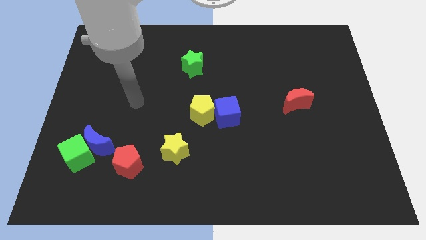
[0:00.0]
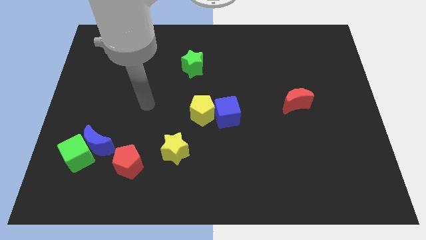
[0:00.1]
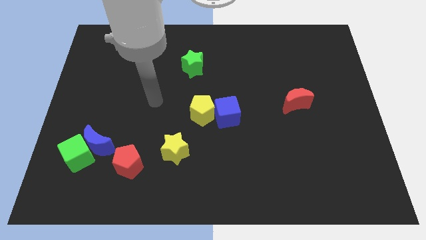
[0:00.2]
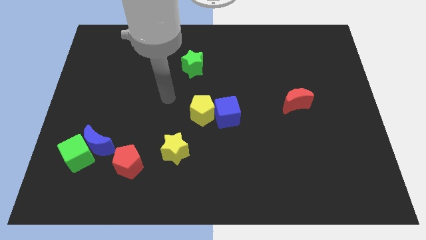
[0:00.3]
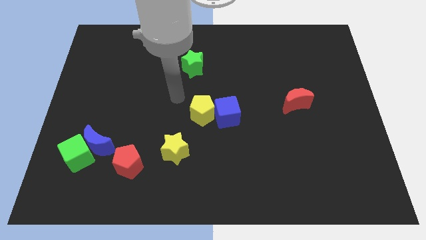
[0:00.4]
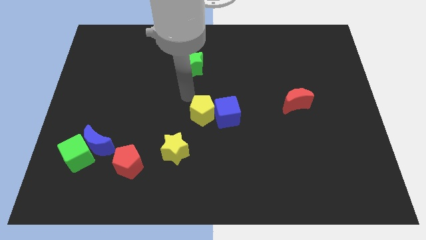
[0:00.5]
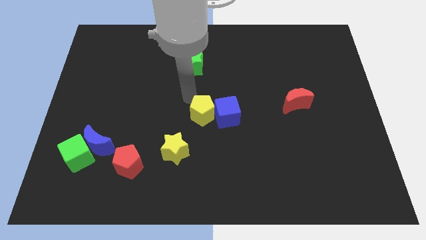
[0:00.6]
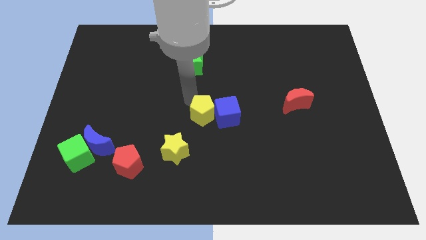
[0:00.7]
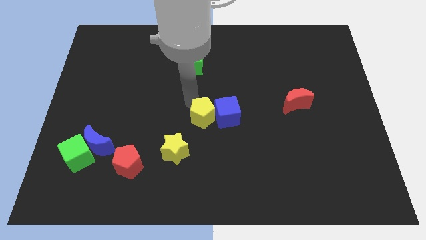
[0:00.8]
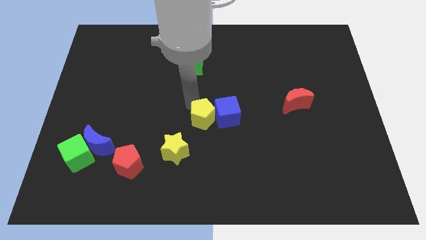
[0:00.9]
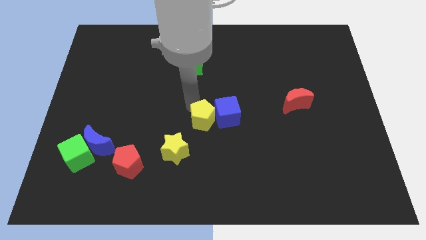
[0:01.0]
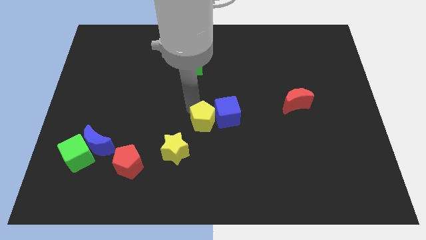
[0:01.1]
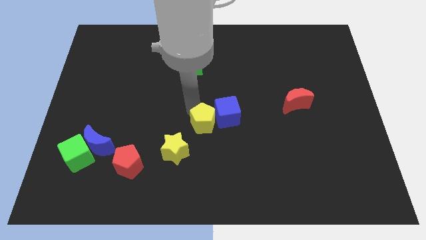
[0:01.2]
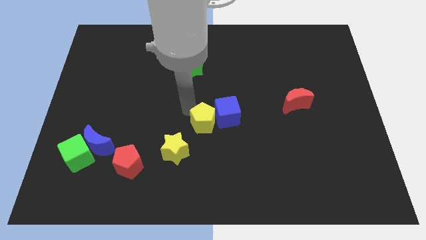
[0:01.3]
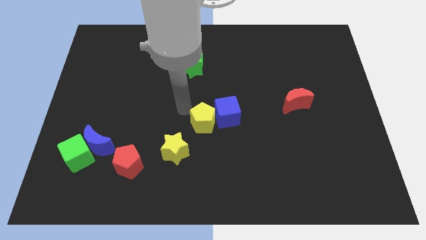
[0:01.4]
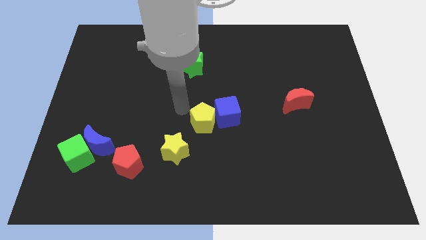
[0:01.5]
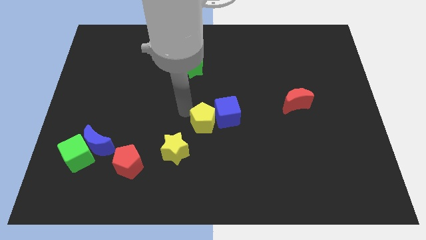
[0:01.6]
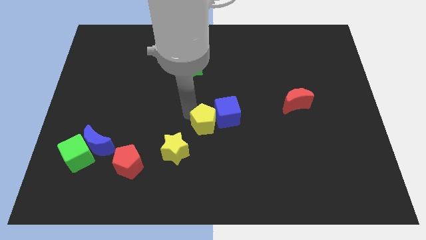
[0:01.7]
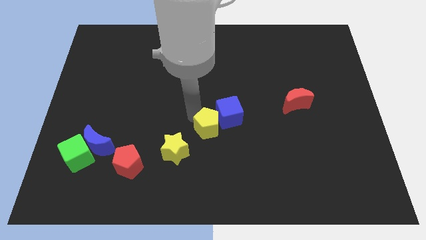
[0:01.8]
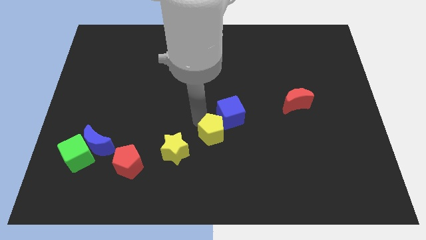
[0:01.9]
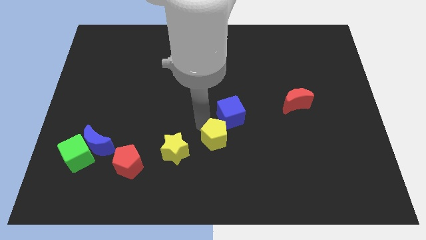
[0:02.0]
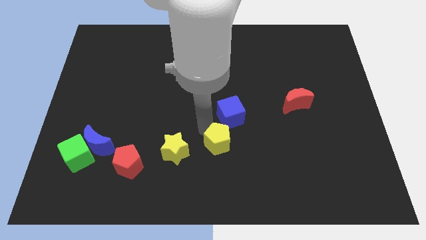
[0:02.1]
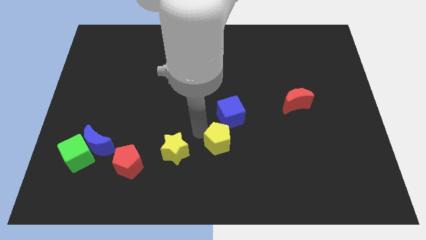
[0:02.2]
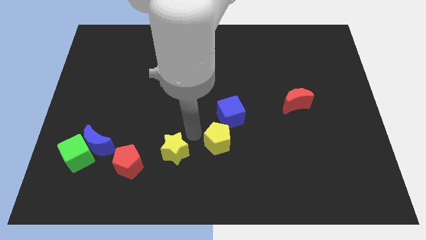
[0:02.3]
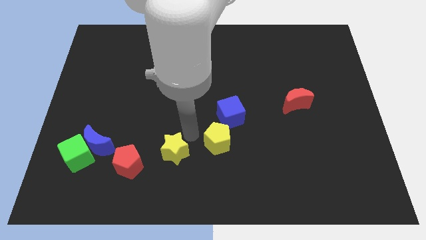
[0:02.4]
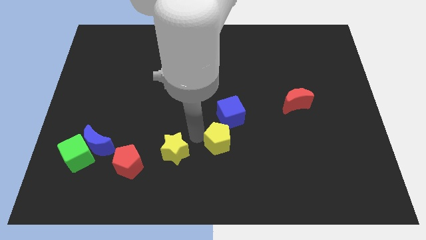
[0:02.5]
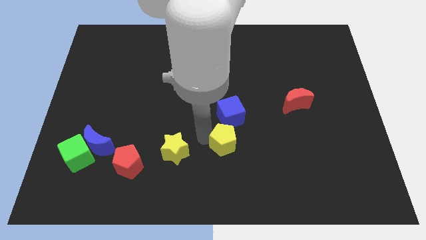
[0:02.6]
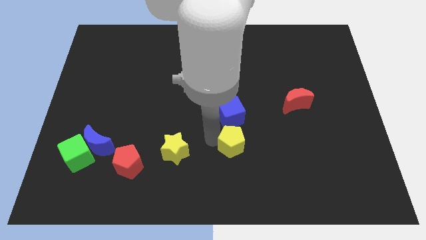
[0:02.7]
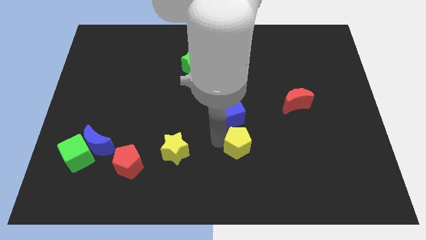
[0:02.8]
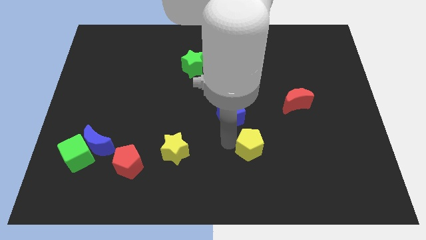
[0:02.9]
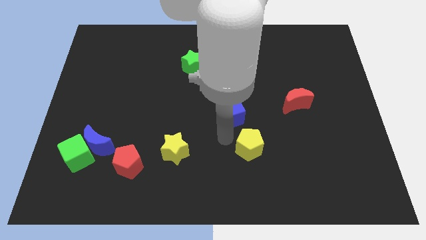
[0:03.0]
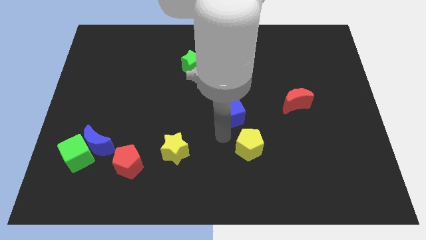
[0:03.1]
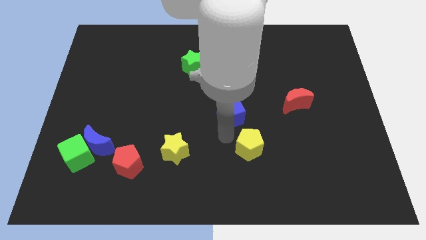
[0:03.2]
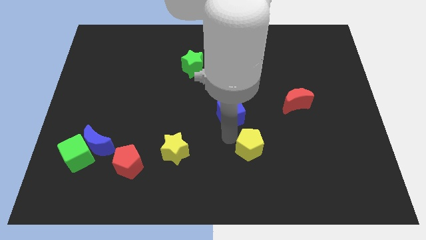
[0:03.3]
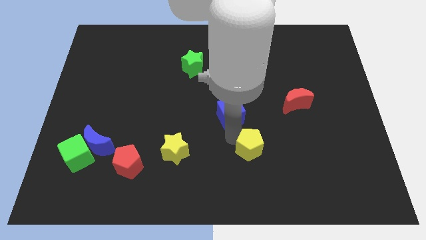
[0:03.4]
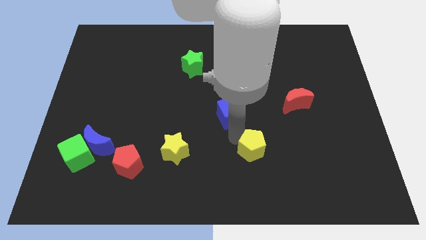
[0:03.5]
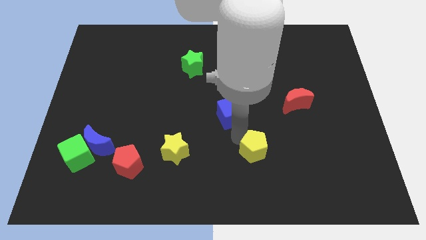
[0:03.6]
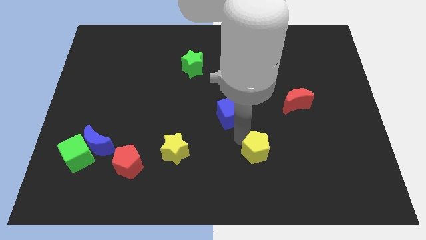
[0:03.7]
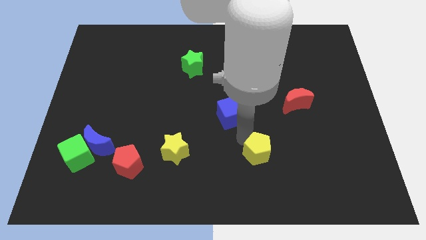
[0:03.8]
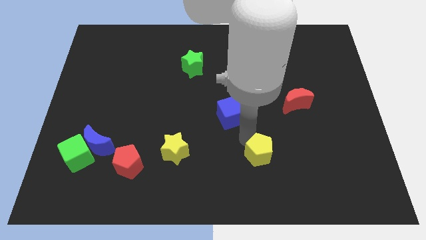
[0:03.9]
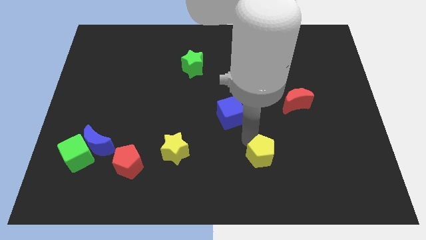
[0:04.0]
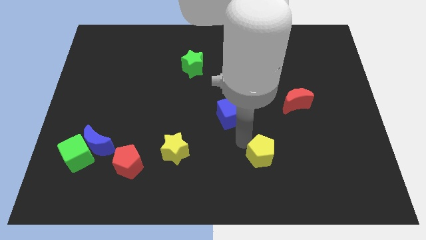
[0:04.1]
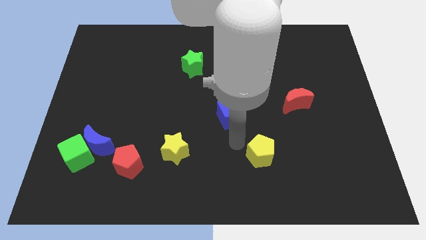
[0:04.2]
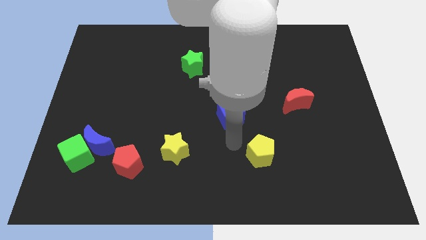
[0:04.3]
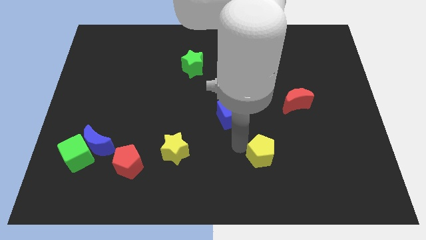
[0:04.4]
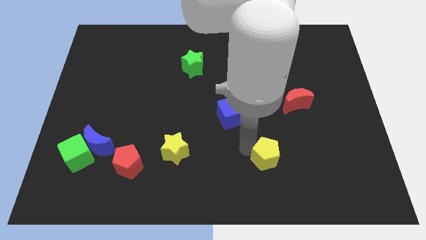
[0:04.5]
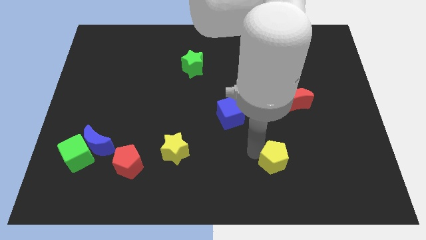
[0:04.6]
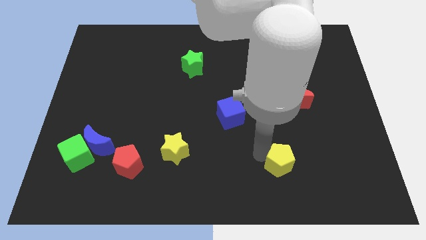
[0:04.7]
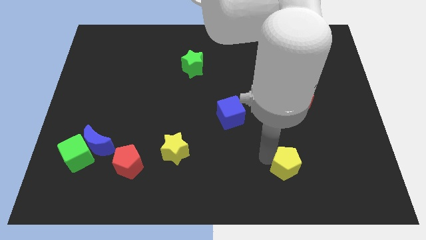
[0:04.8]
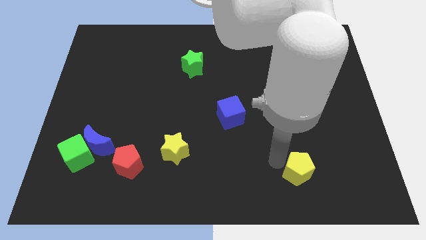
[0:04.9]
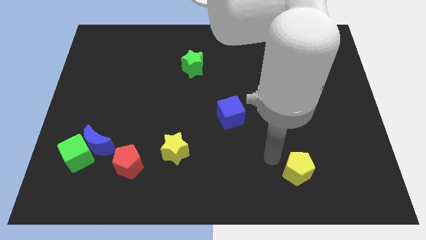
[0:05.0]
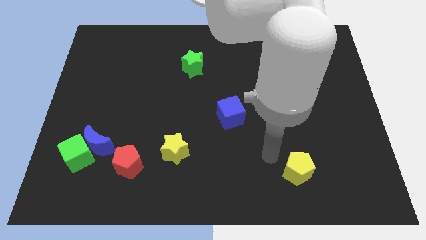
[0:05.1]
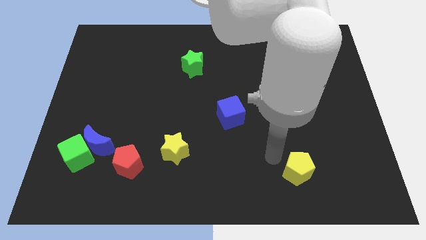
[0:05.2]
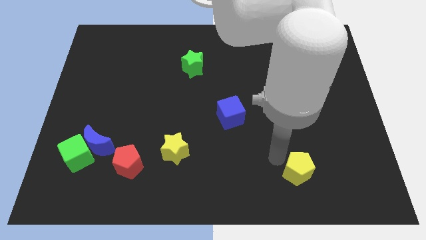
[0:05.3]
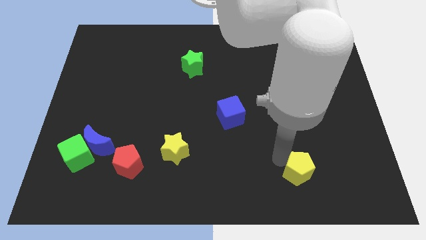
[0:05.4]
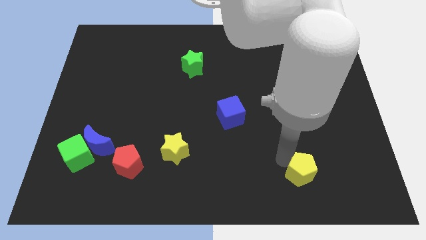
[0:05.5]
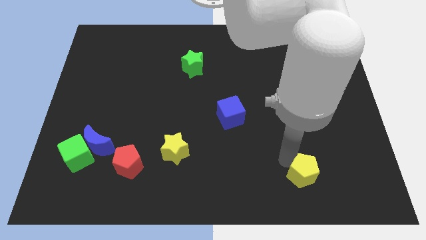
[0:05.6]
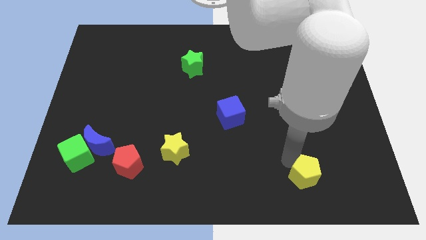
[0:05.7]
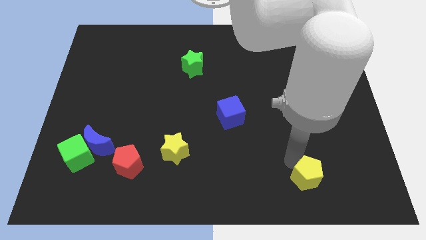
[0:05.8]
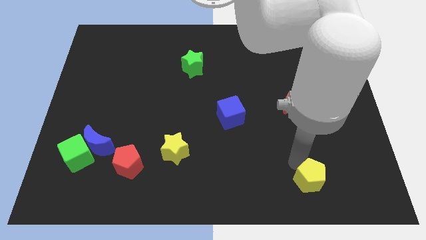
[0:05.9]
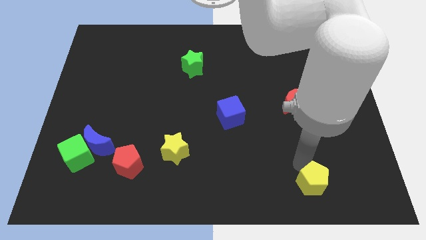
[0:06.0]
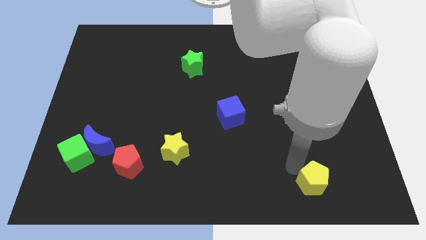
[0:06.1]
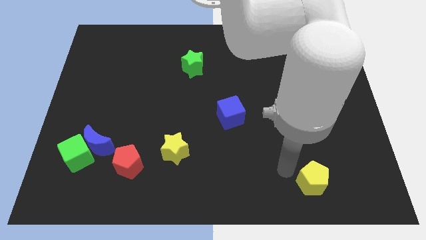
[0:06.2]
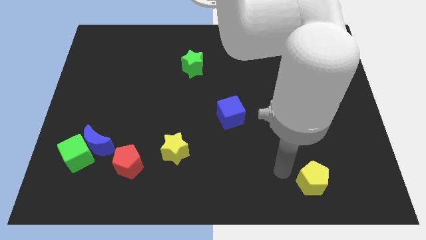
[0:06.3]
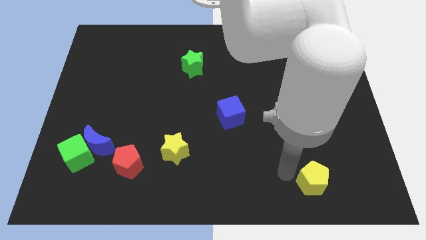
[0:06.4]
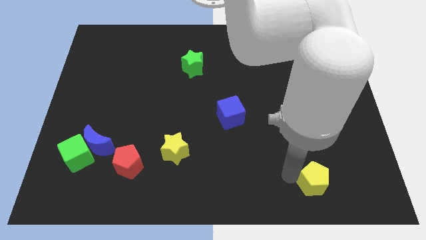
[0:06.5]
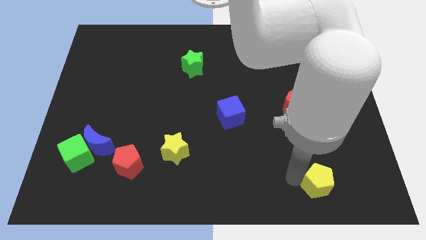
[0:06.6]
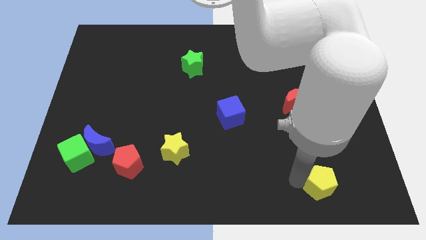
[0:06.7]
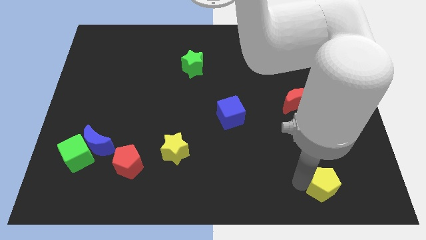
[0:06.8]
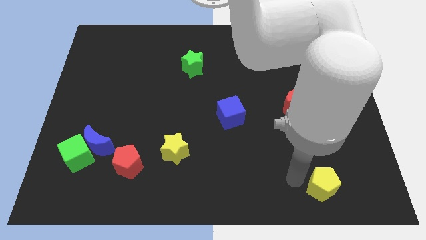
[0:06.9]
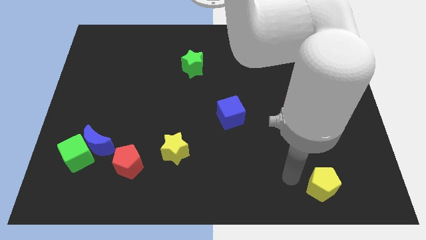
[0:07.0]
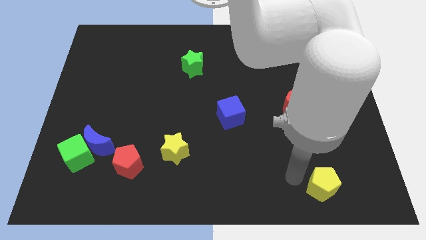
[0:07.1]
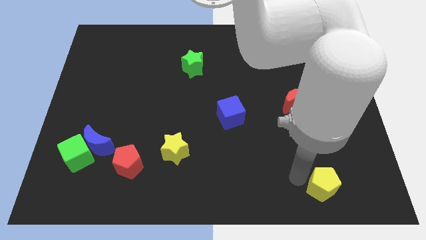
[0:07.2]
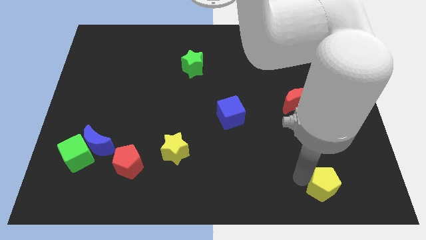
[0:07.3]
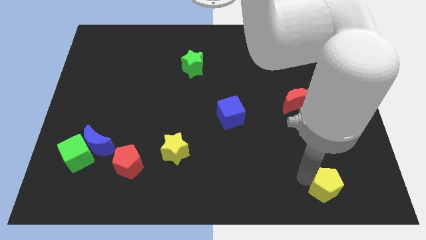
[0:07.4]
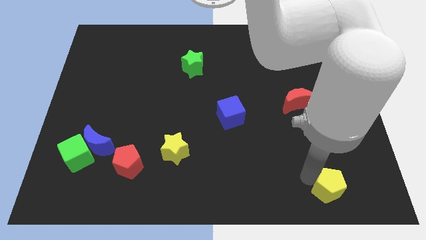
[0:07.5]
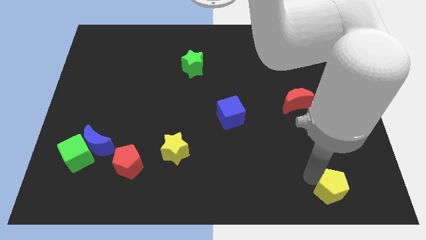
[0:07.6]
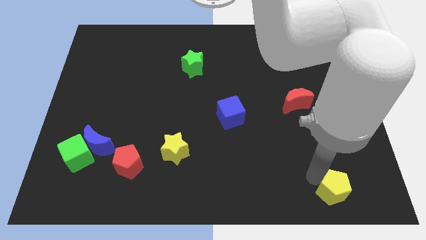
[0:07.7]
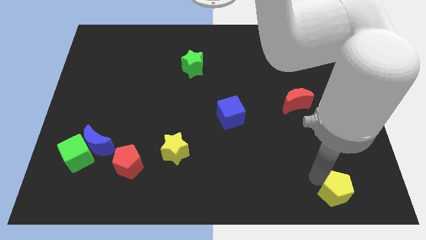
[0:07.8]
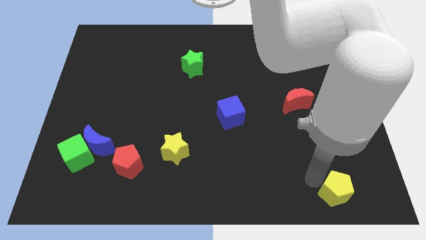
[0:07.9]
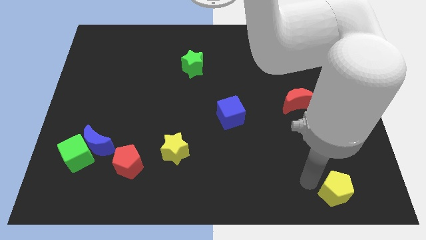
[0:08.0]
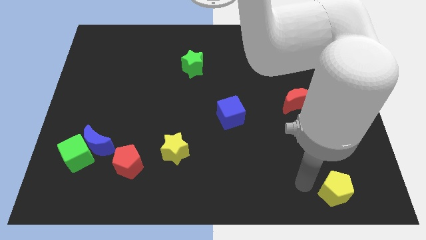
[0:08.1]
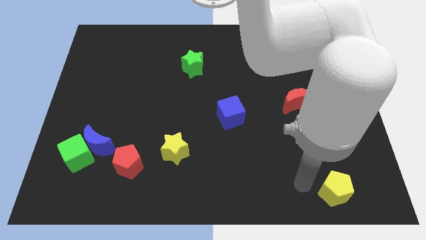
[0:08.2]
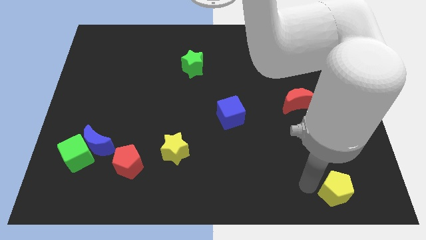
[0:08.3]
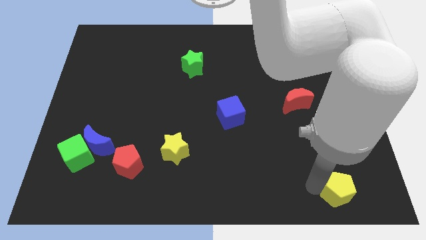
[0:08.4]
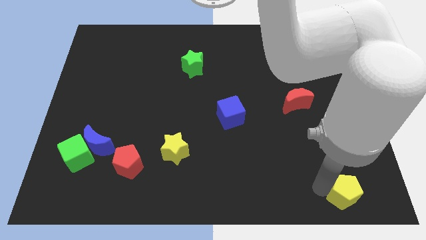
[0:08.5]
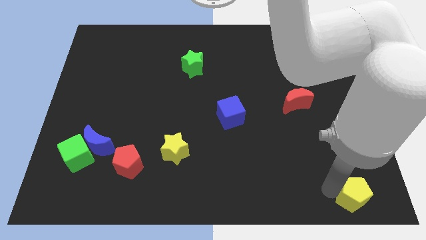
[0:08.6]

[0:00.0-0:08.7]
push the yellow pentagon to the bottom right of the board
